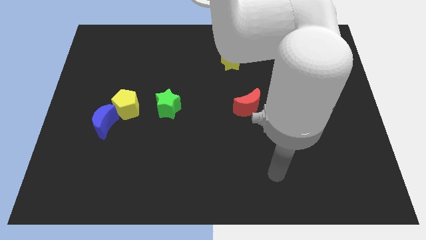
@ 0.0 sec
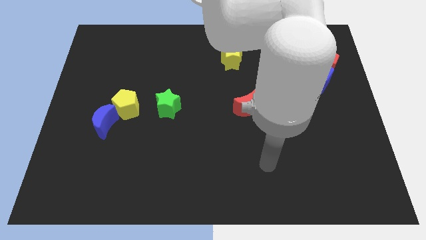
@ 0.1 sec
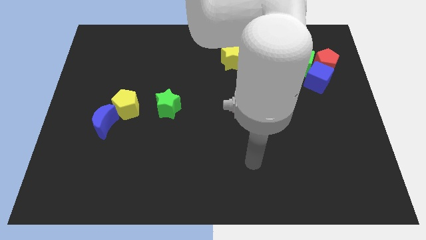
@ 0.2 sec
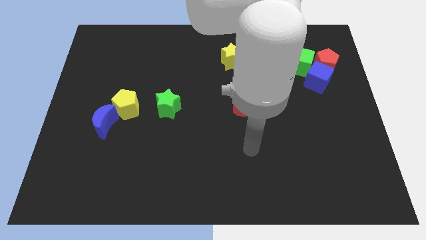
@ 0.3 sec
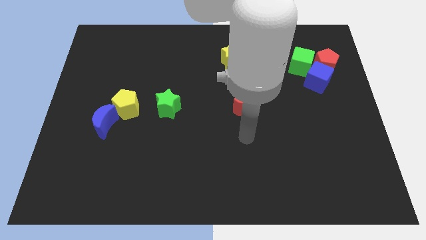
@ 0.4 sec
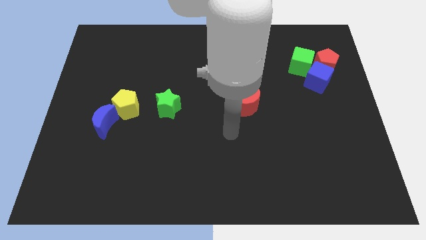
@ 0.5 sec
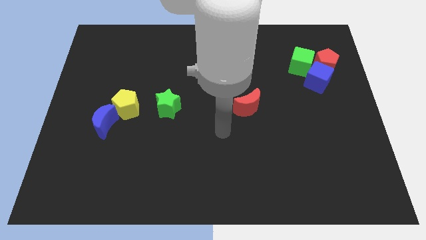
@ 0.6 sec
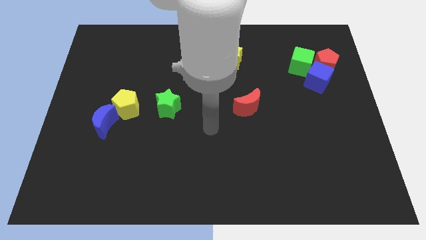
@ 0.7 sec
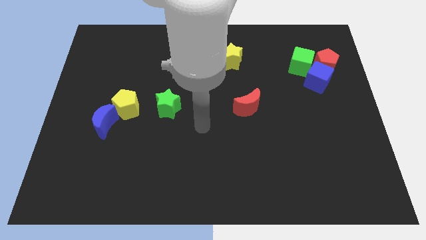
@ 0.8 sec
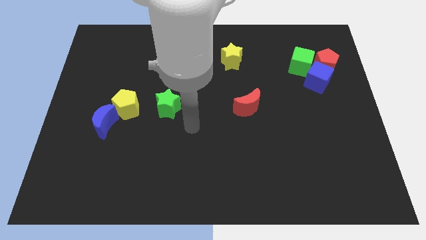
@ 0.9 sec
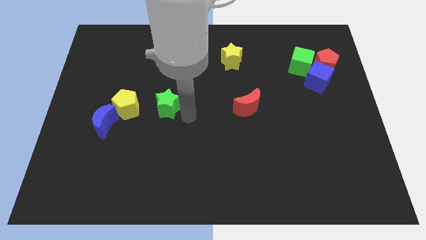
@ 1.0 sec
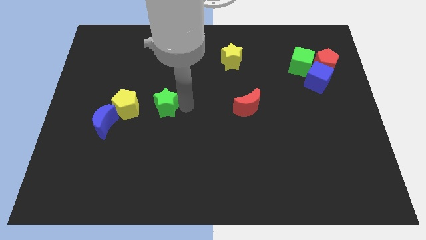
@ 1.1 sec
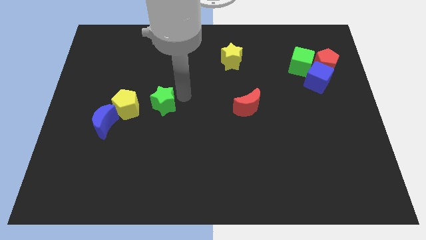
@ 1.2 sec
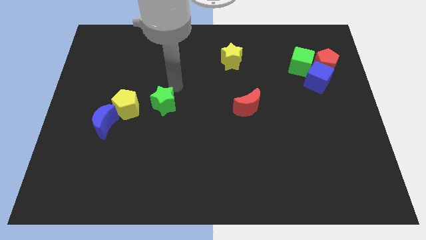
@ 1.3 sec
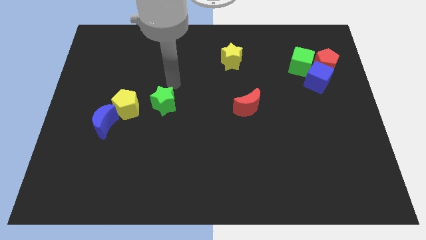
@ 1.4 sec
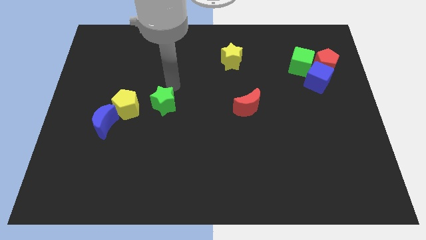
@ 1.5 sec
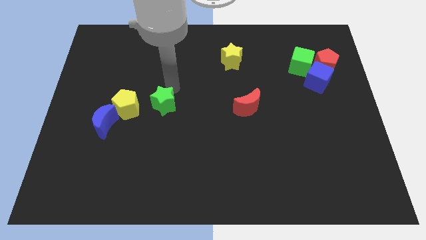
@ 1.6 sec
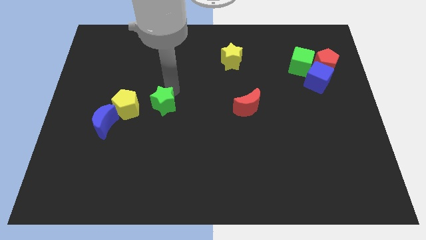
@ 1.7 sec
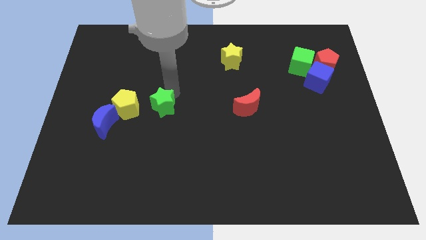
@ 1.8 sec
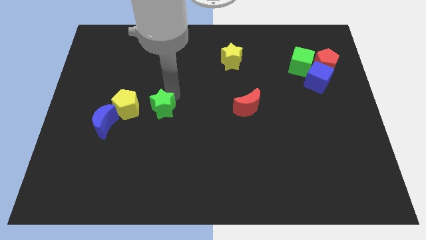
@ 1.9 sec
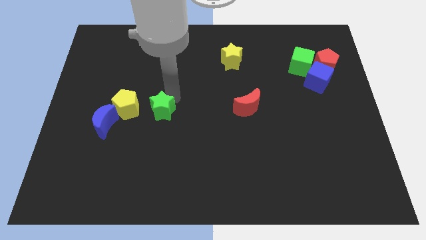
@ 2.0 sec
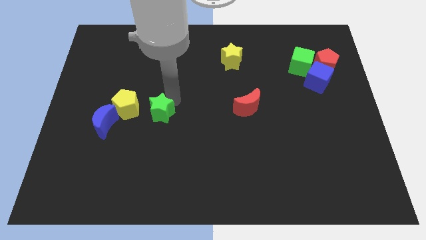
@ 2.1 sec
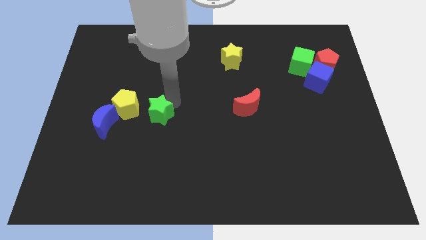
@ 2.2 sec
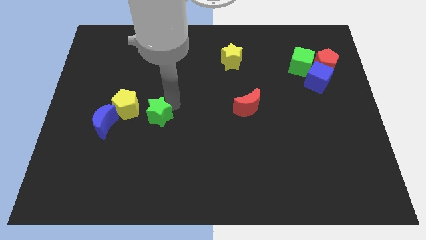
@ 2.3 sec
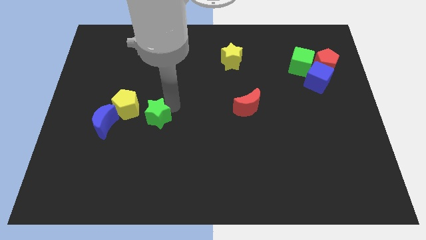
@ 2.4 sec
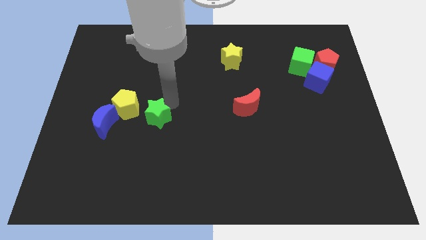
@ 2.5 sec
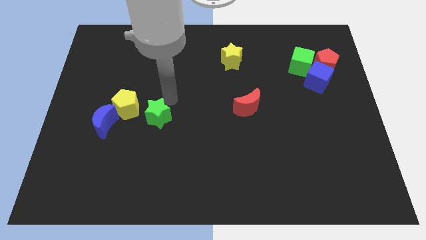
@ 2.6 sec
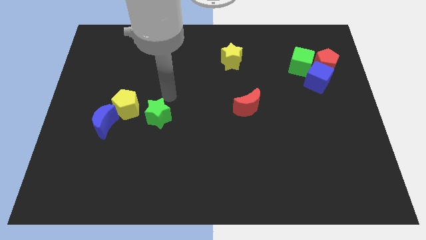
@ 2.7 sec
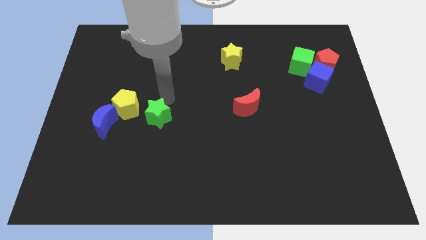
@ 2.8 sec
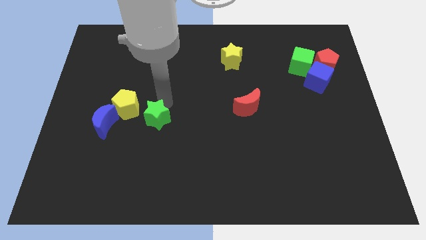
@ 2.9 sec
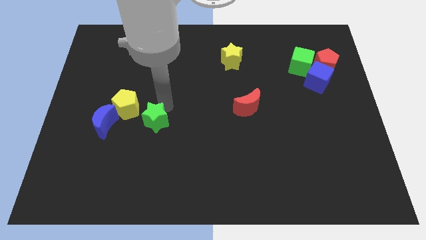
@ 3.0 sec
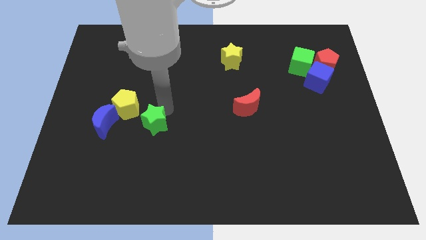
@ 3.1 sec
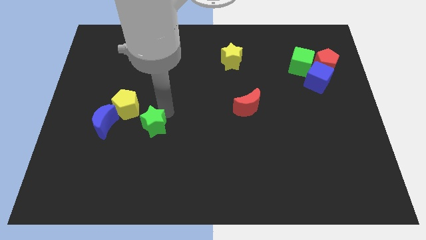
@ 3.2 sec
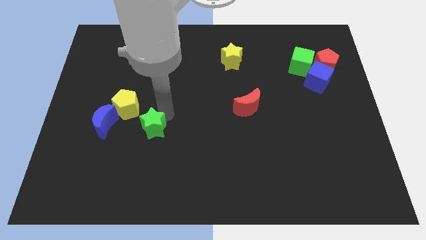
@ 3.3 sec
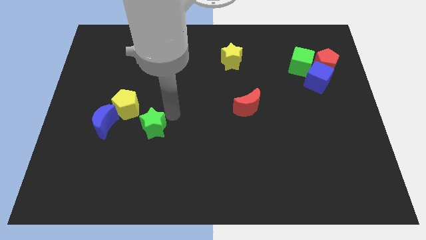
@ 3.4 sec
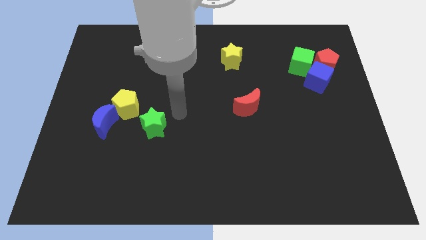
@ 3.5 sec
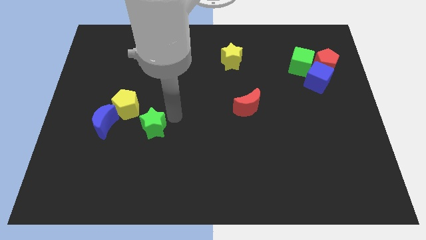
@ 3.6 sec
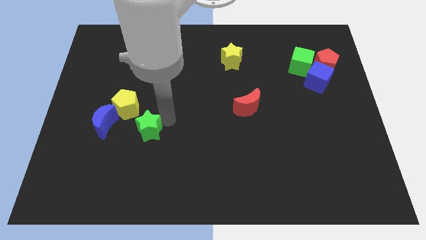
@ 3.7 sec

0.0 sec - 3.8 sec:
slightly slide the green star down and then to the left

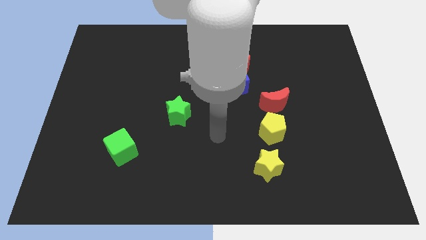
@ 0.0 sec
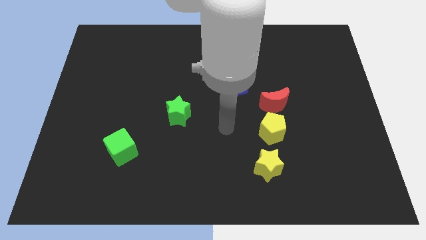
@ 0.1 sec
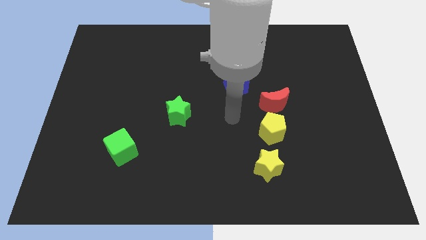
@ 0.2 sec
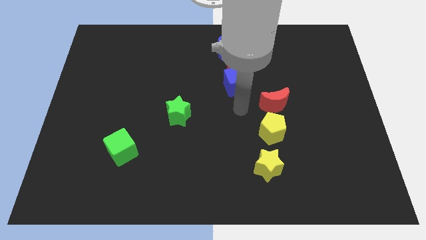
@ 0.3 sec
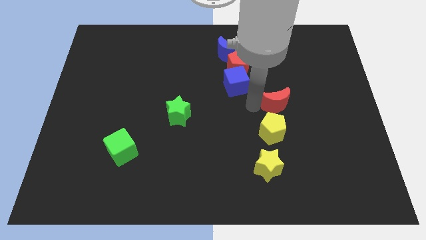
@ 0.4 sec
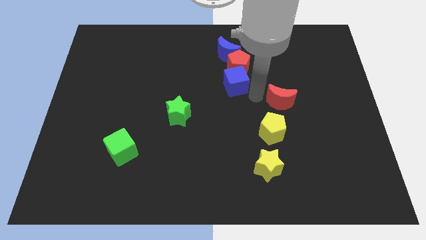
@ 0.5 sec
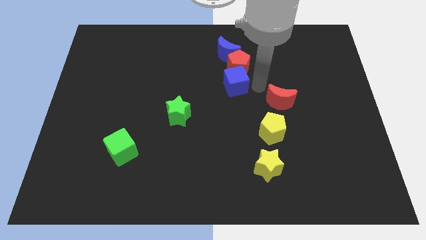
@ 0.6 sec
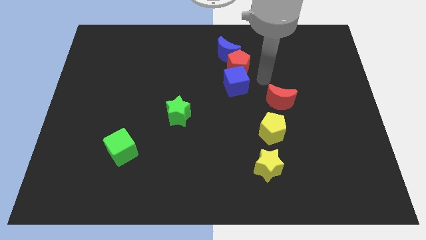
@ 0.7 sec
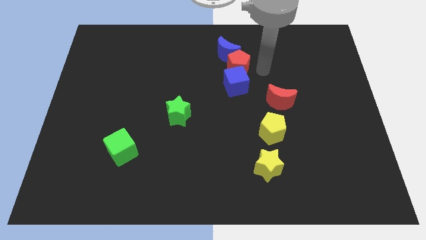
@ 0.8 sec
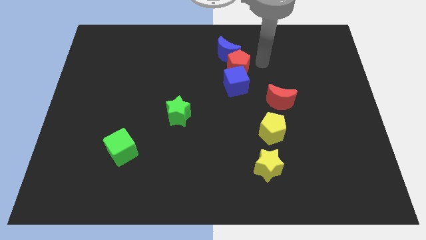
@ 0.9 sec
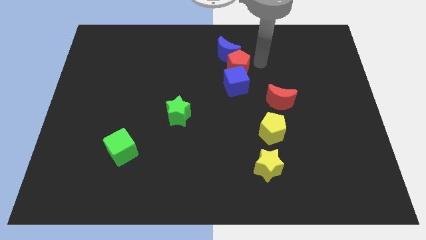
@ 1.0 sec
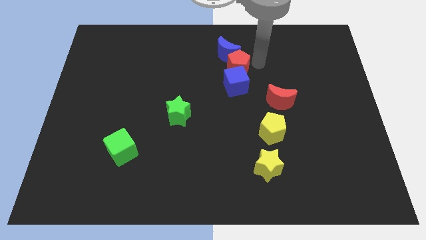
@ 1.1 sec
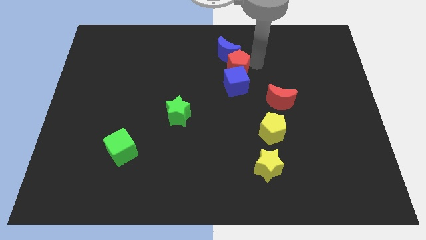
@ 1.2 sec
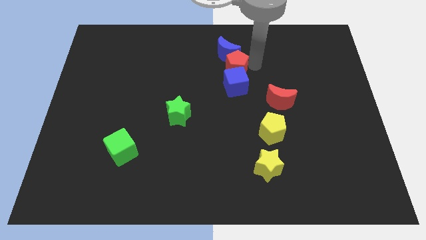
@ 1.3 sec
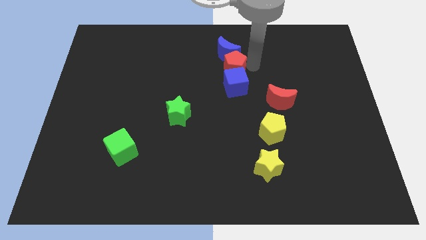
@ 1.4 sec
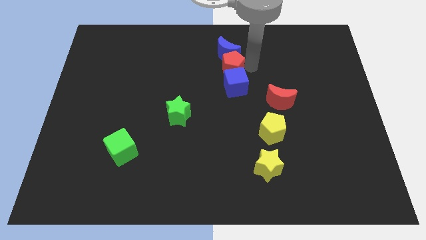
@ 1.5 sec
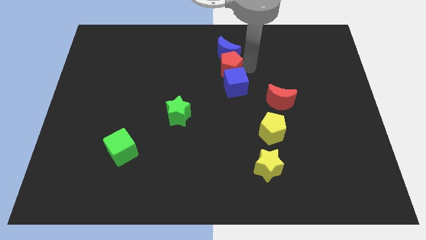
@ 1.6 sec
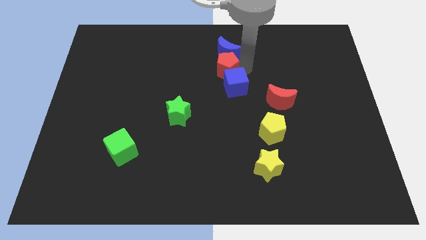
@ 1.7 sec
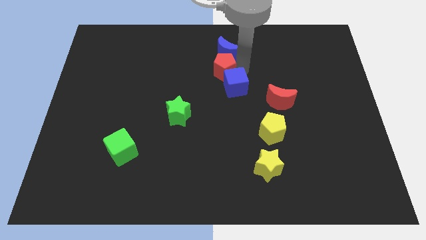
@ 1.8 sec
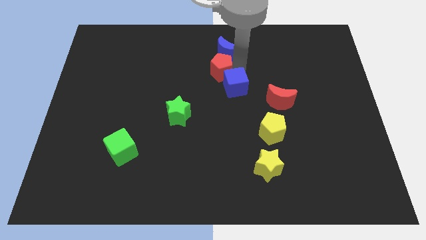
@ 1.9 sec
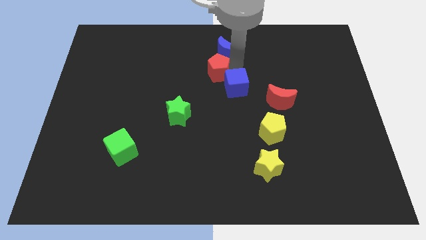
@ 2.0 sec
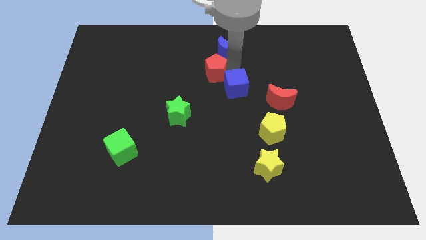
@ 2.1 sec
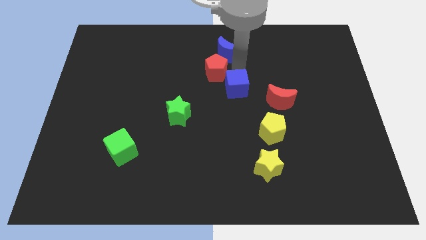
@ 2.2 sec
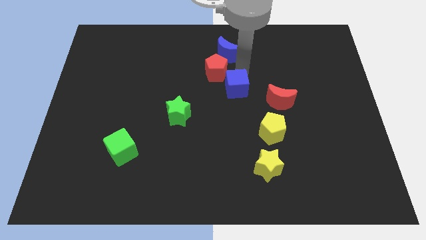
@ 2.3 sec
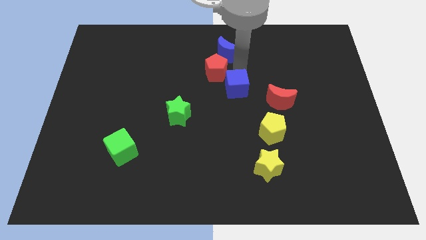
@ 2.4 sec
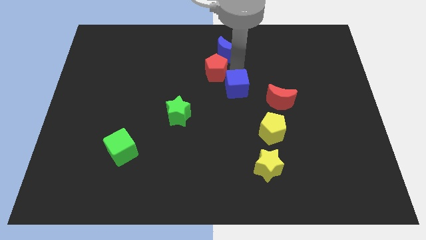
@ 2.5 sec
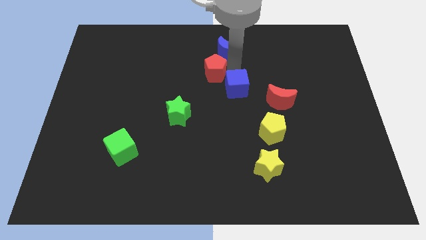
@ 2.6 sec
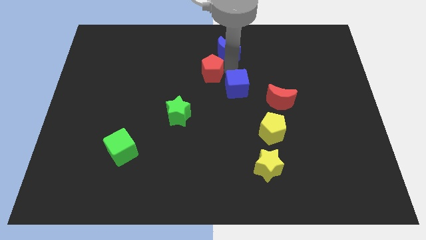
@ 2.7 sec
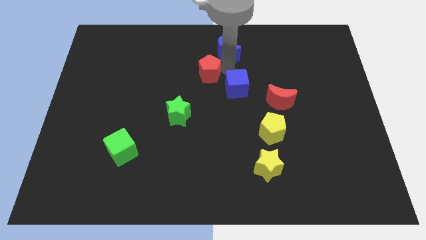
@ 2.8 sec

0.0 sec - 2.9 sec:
move the red pentagon a bit left

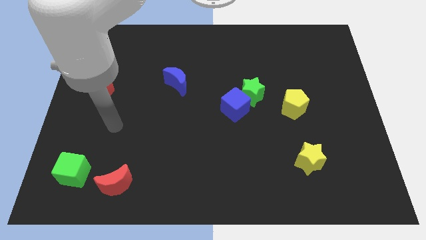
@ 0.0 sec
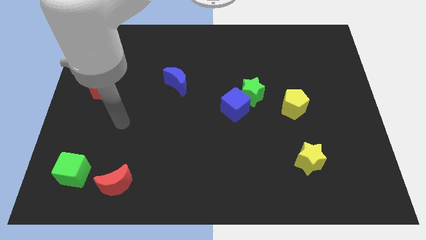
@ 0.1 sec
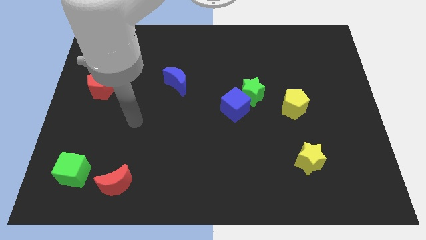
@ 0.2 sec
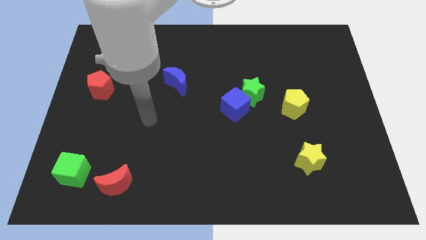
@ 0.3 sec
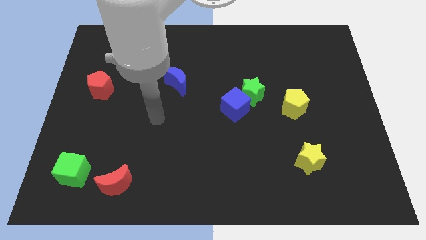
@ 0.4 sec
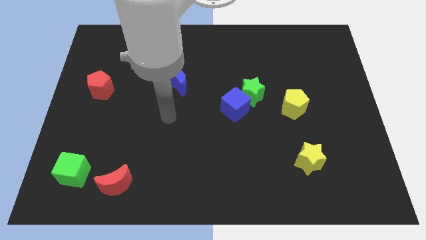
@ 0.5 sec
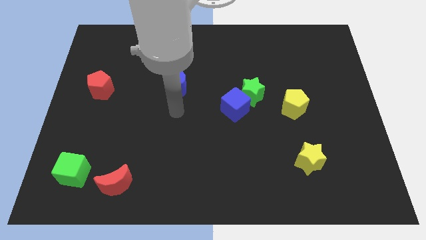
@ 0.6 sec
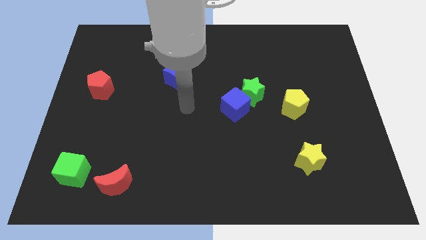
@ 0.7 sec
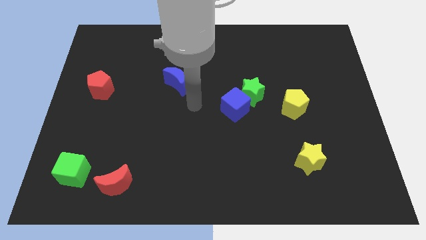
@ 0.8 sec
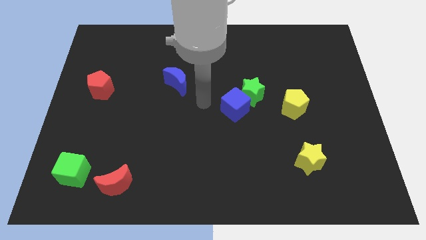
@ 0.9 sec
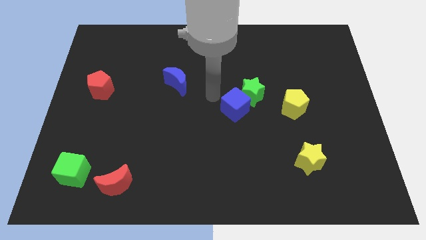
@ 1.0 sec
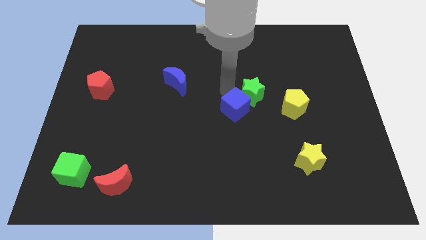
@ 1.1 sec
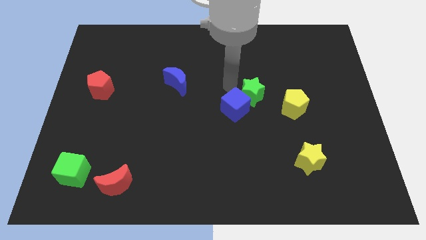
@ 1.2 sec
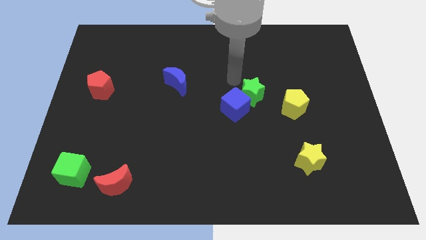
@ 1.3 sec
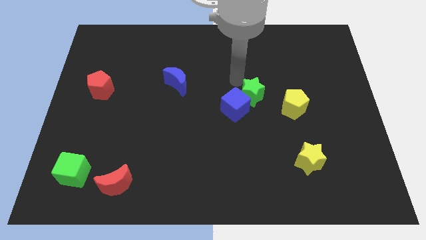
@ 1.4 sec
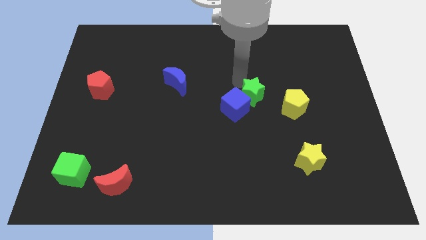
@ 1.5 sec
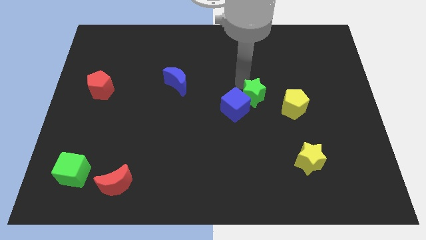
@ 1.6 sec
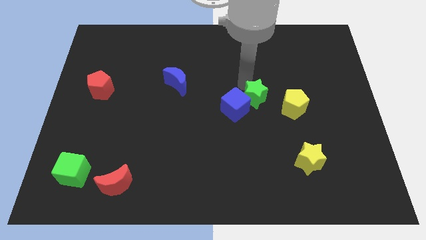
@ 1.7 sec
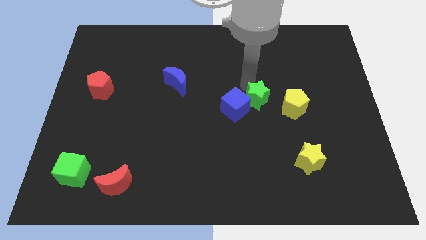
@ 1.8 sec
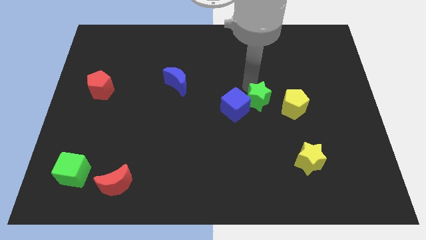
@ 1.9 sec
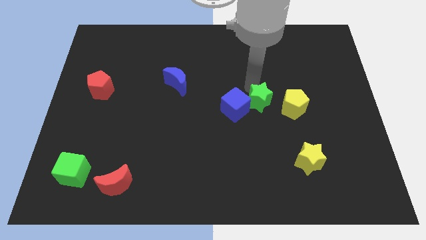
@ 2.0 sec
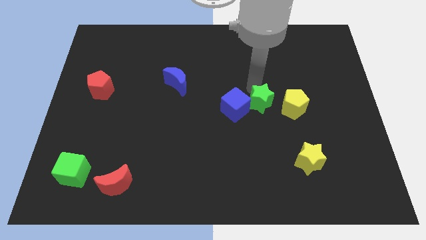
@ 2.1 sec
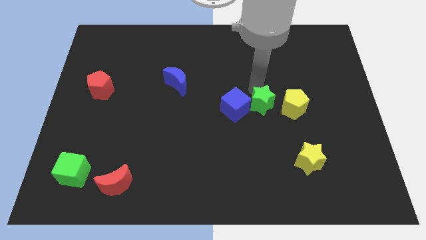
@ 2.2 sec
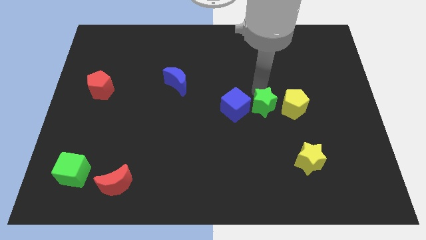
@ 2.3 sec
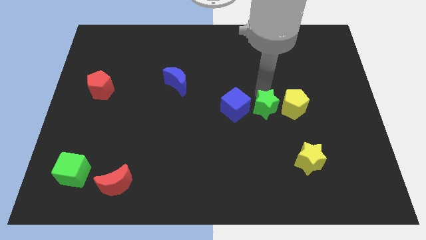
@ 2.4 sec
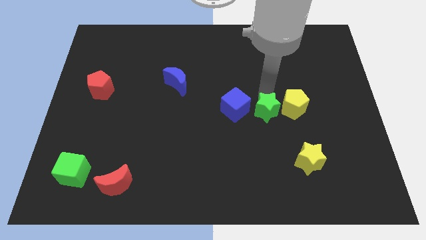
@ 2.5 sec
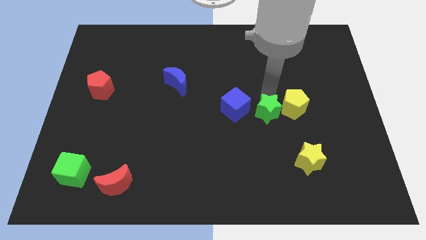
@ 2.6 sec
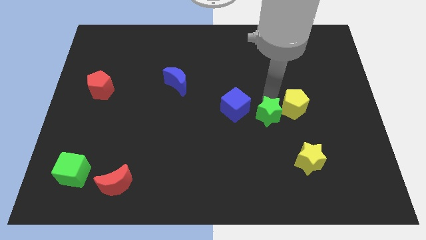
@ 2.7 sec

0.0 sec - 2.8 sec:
slightly push the green star down and to the right diagonally
